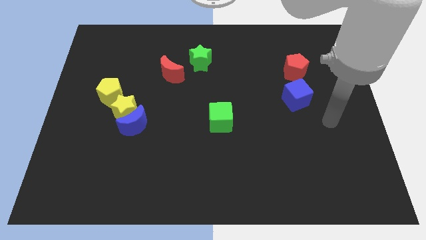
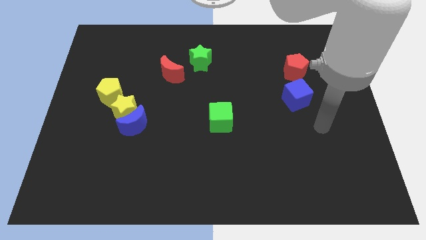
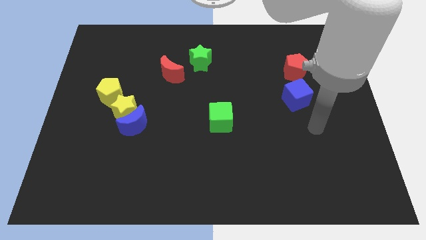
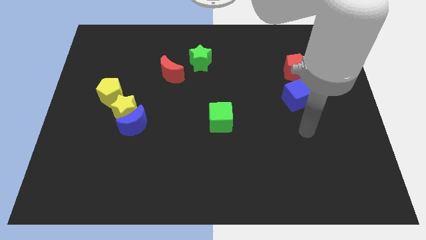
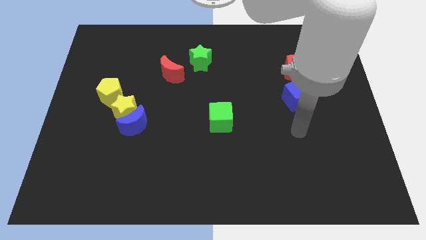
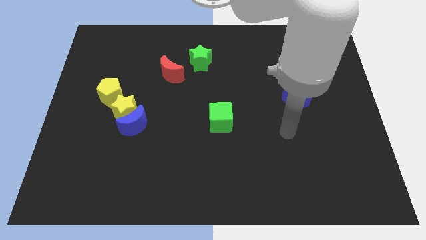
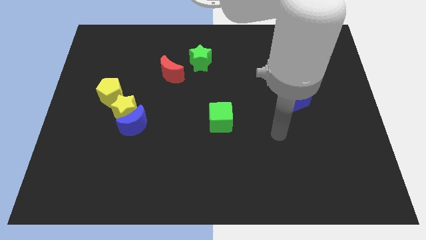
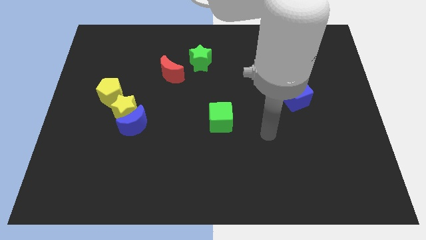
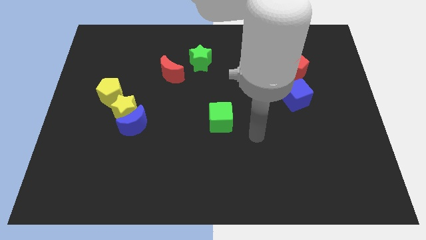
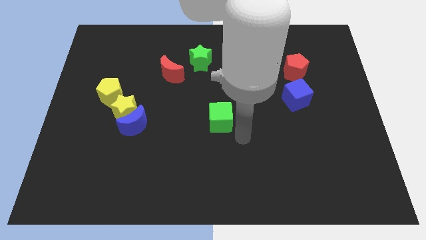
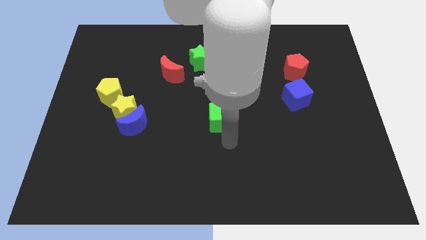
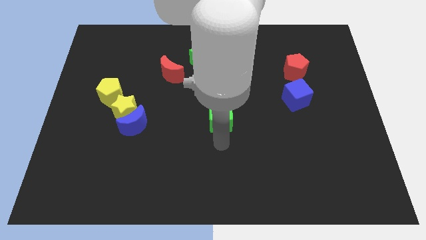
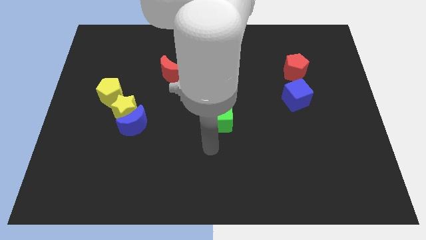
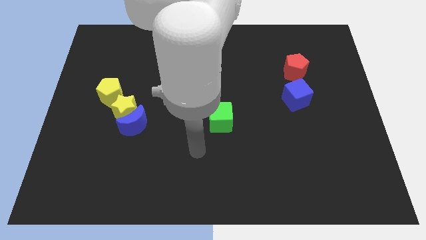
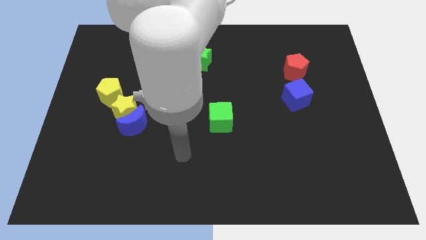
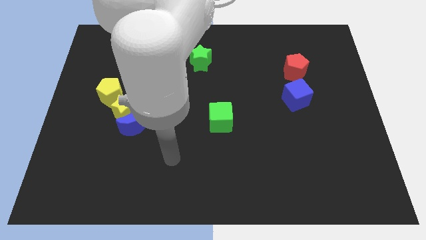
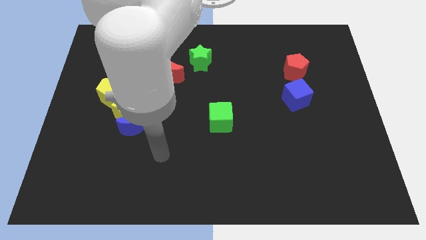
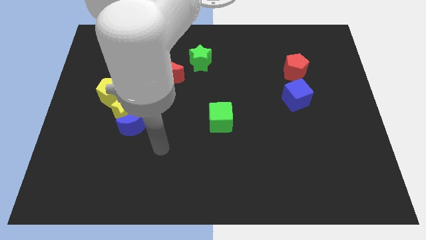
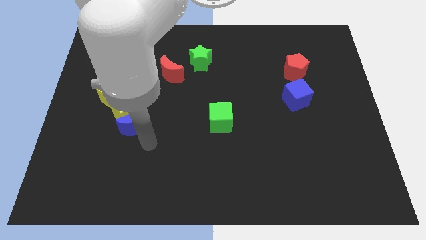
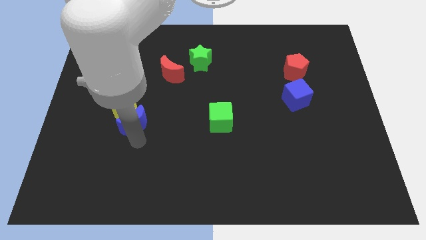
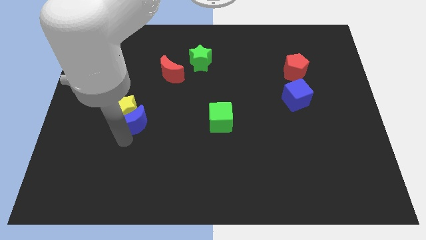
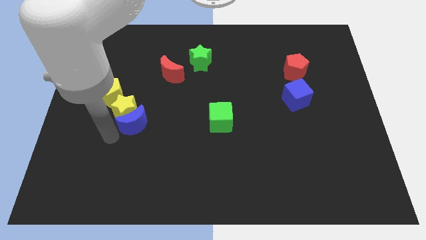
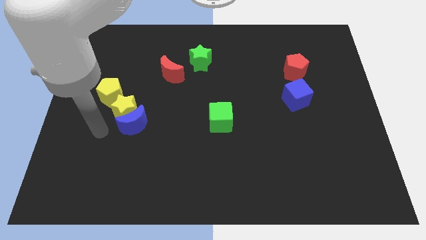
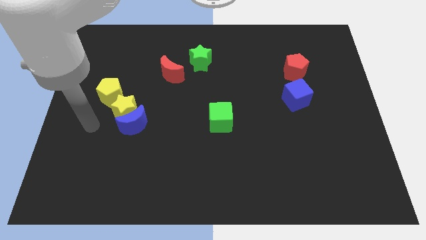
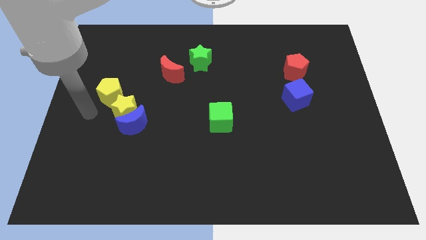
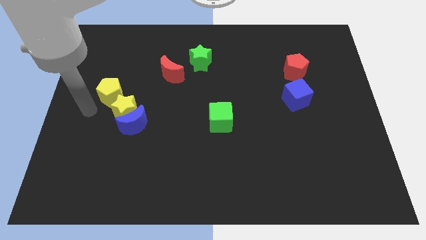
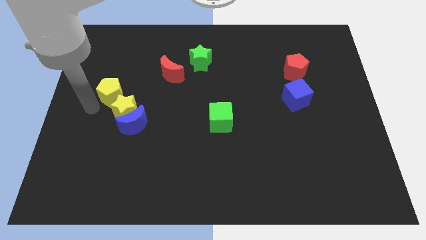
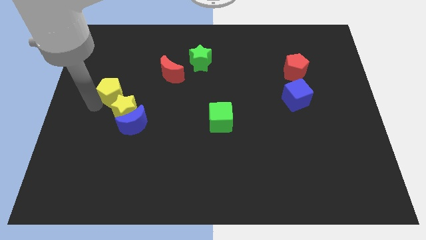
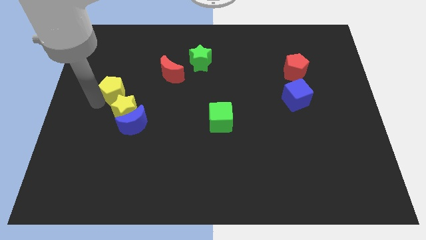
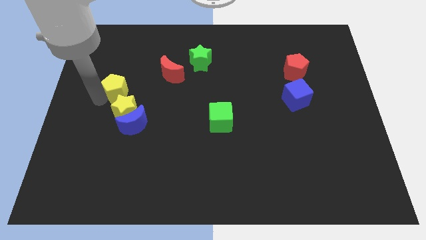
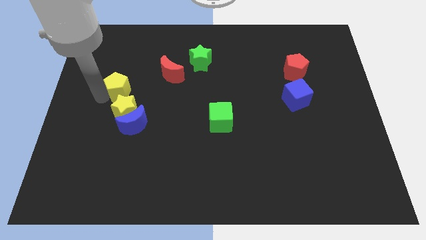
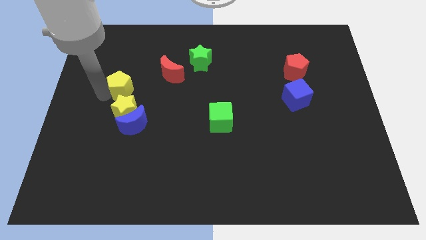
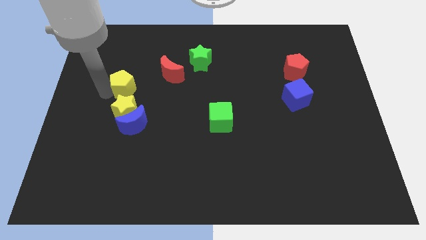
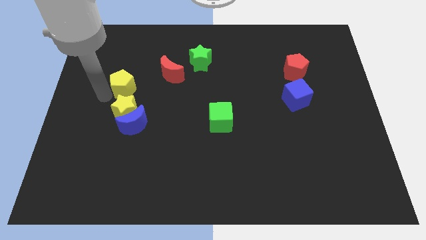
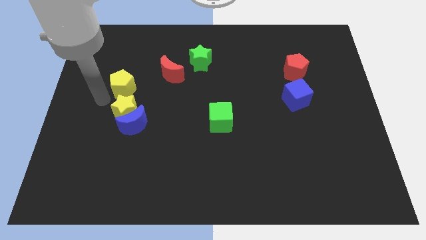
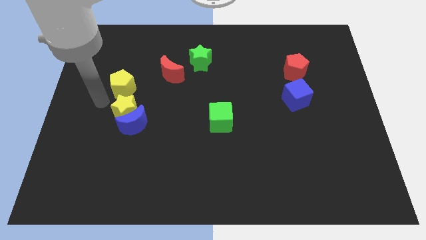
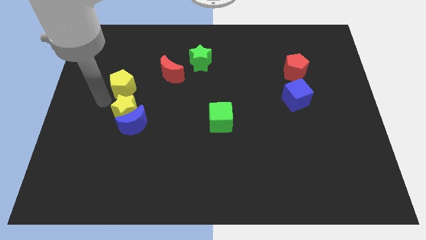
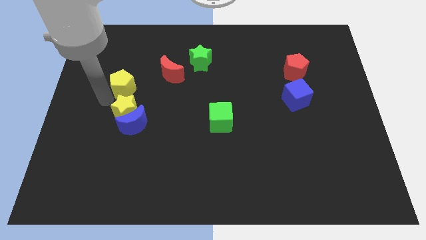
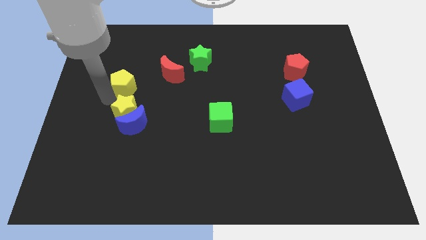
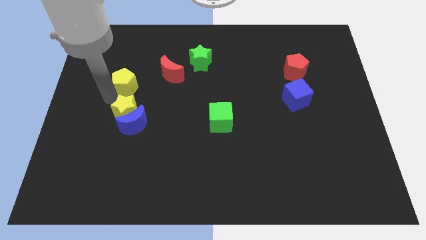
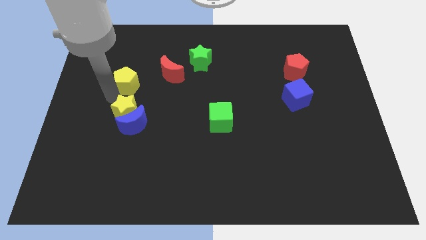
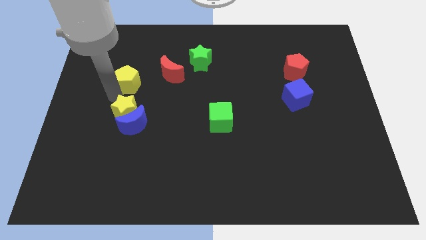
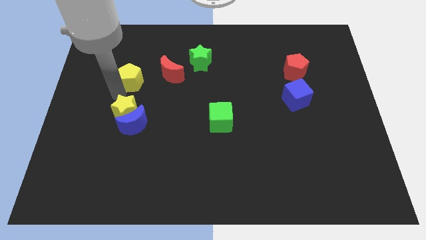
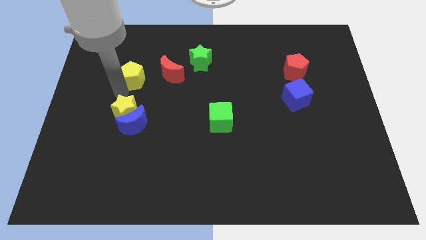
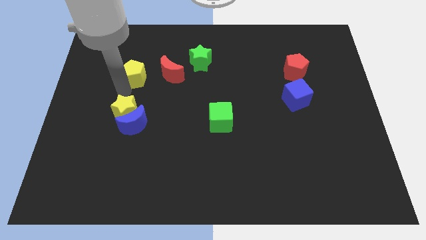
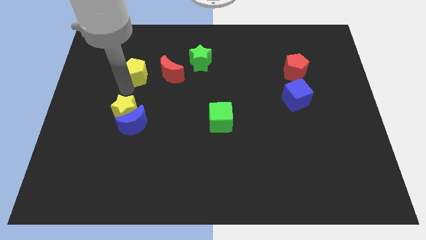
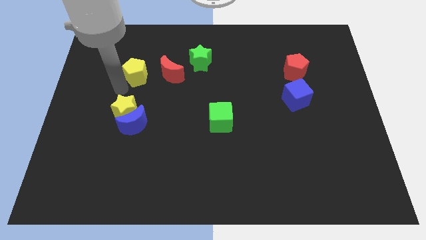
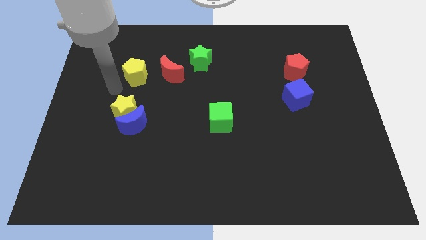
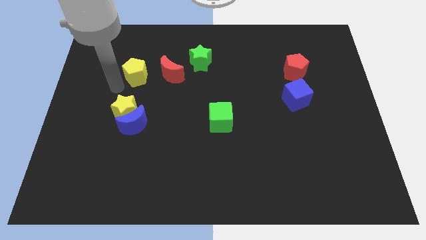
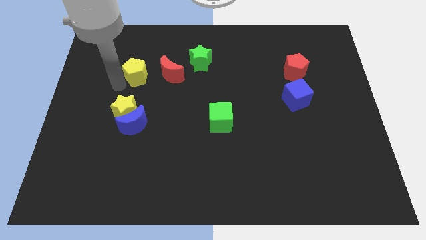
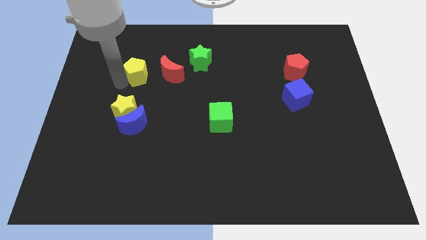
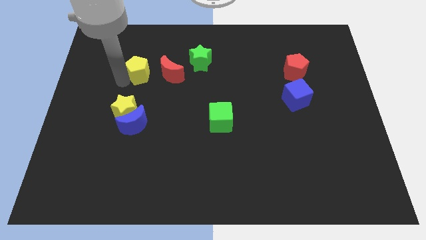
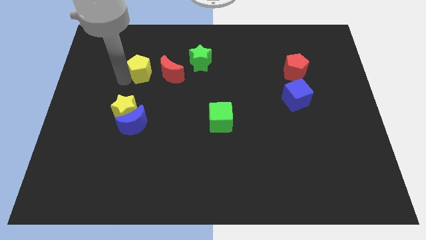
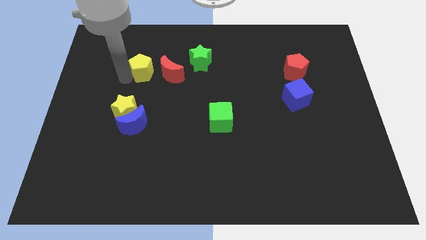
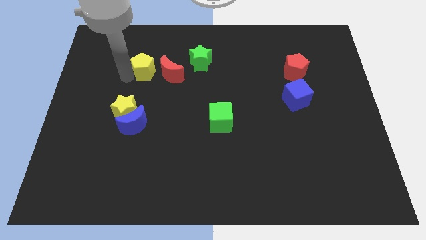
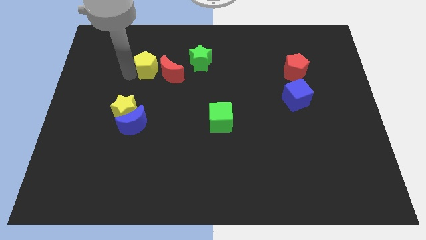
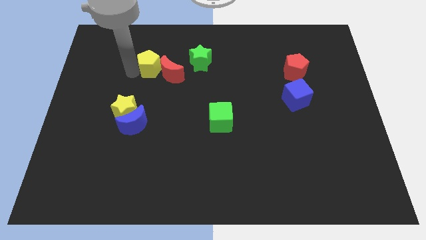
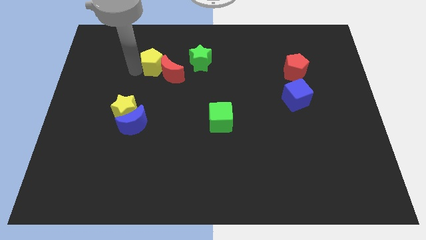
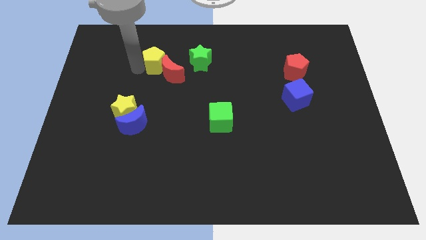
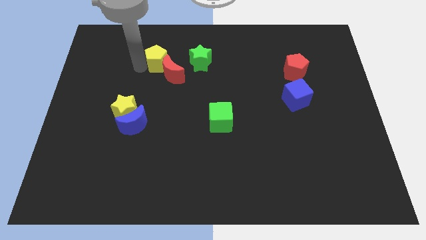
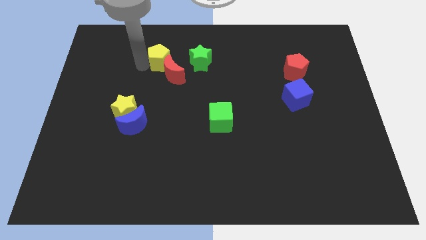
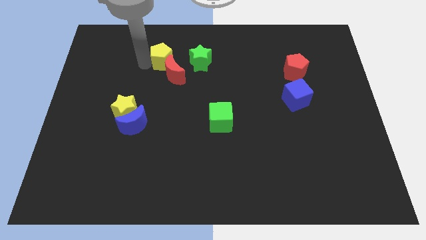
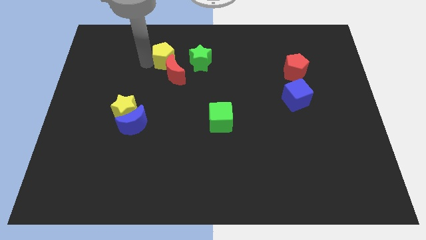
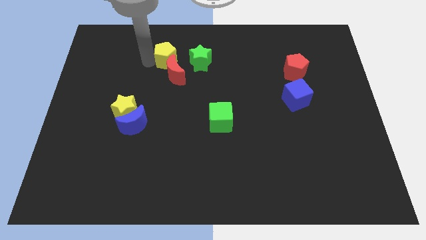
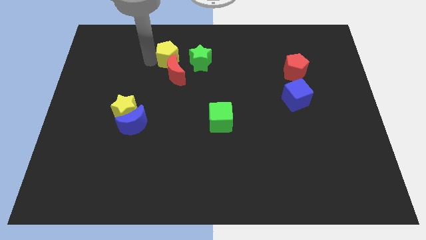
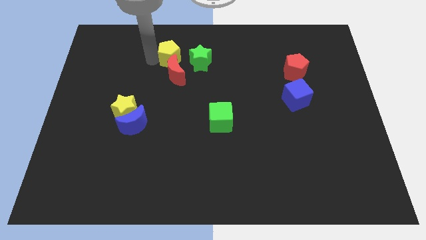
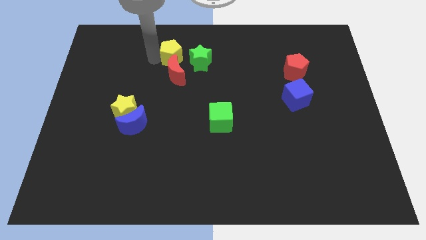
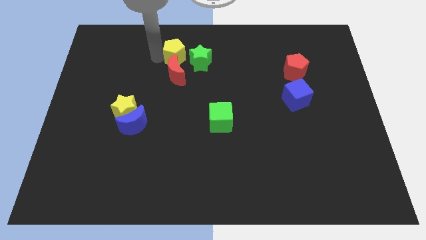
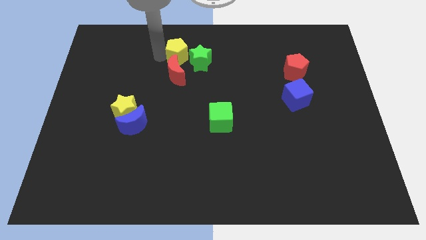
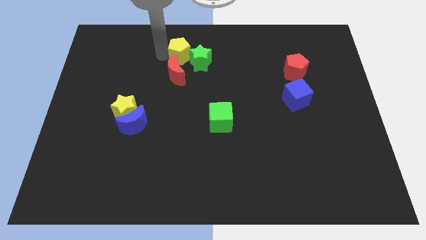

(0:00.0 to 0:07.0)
slide the yellow pentagon to the green star
